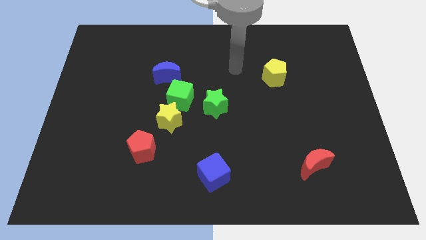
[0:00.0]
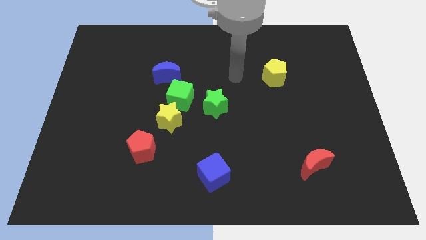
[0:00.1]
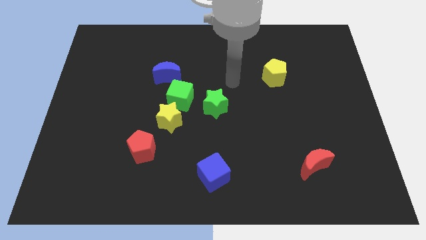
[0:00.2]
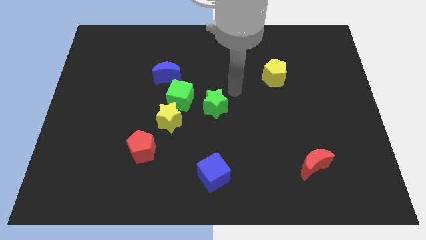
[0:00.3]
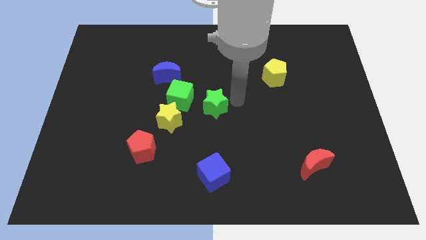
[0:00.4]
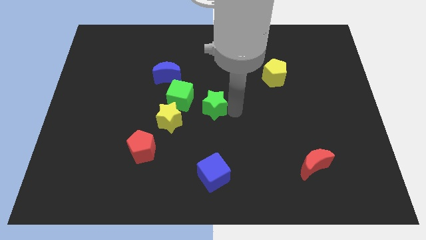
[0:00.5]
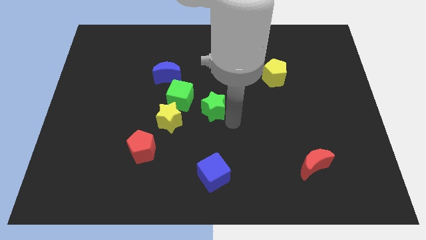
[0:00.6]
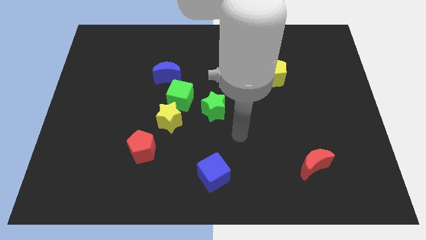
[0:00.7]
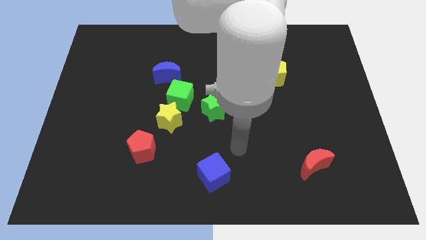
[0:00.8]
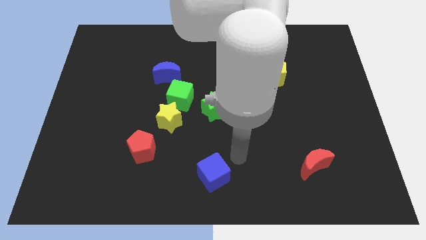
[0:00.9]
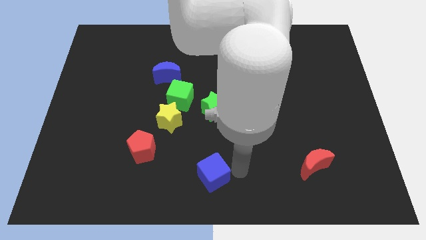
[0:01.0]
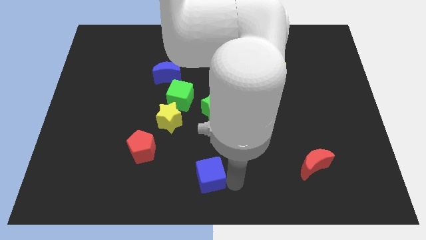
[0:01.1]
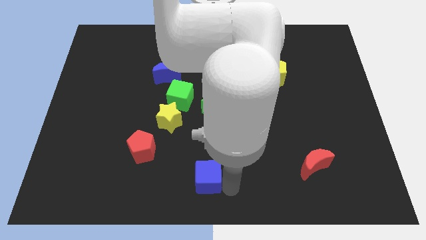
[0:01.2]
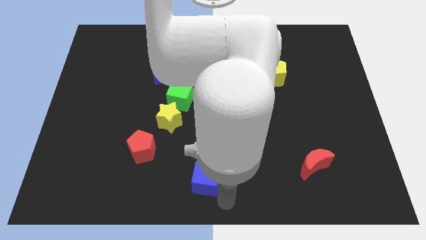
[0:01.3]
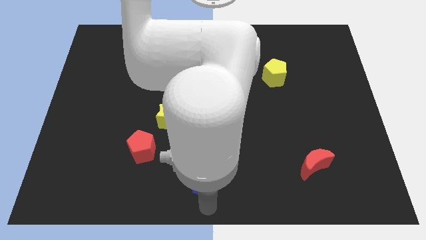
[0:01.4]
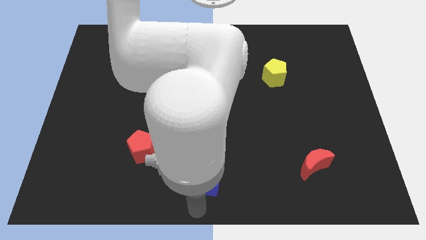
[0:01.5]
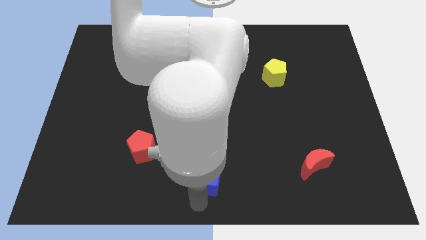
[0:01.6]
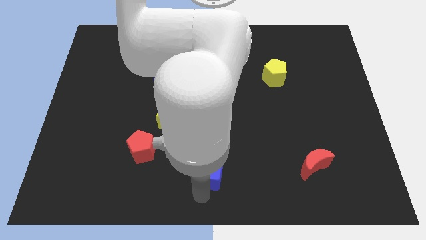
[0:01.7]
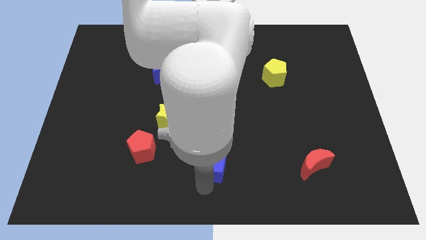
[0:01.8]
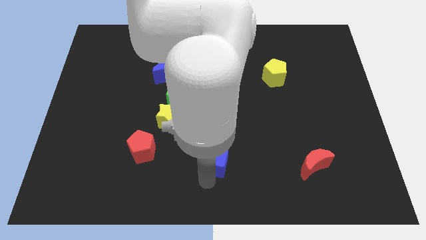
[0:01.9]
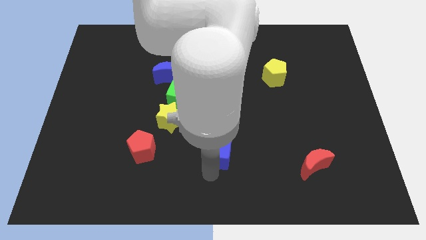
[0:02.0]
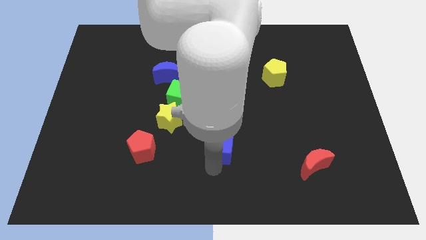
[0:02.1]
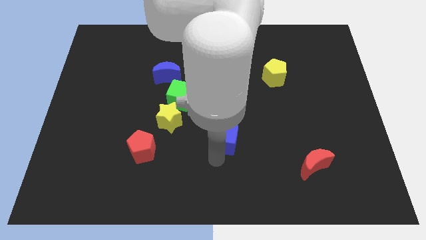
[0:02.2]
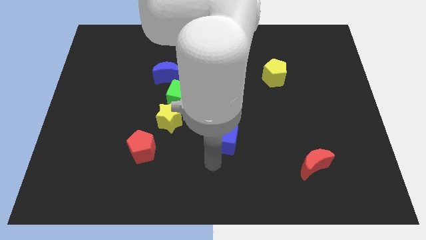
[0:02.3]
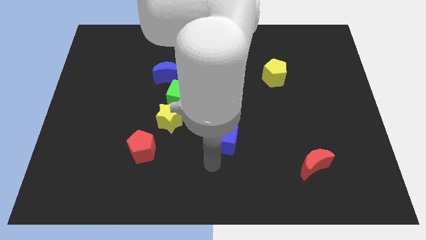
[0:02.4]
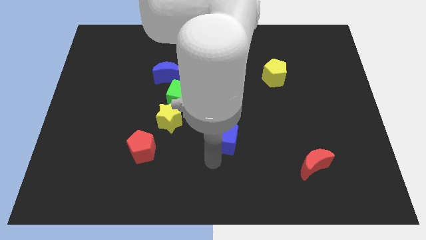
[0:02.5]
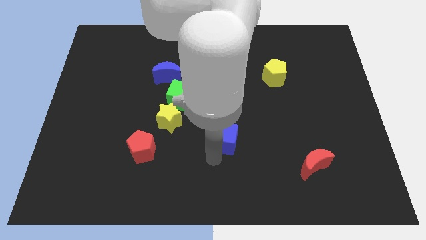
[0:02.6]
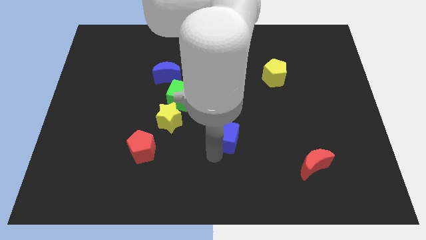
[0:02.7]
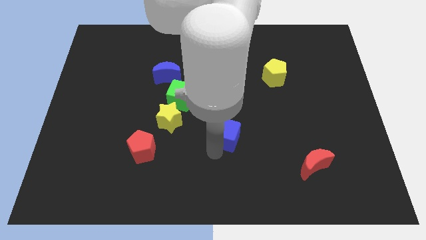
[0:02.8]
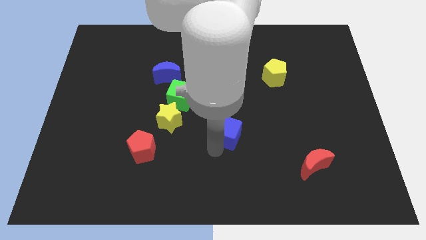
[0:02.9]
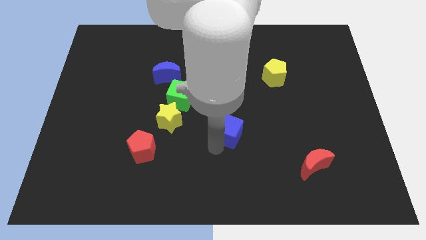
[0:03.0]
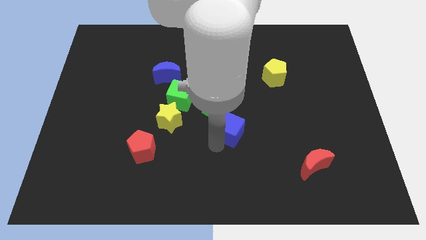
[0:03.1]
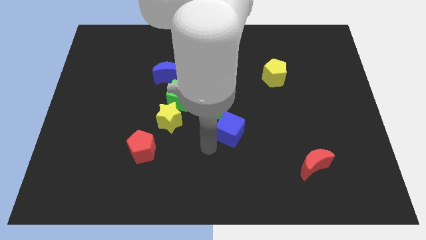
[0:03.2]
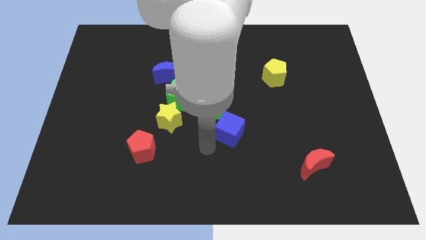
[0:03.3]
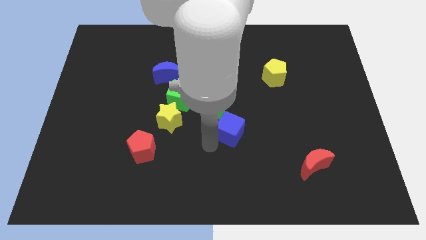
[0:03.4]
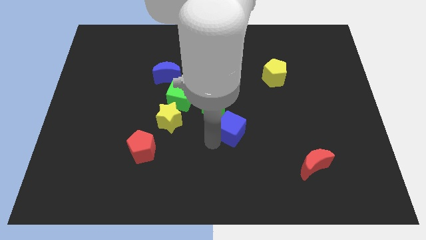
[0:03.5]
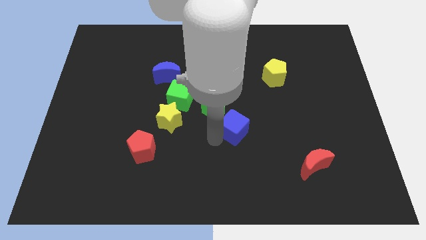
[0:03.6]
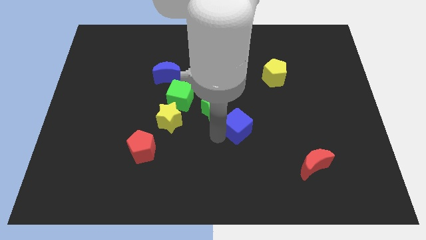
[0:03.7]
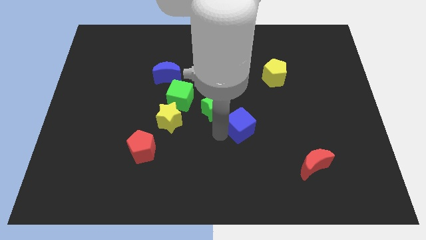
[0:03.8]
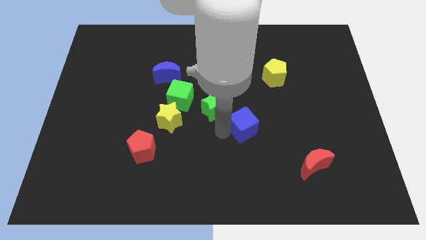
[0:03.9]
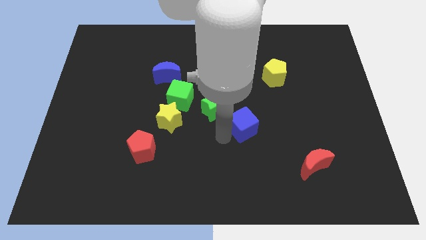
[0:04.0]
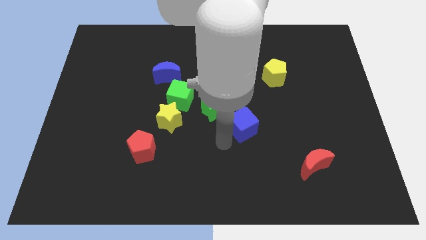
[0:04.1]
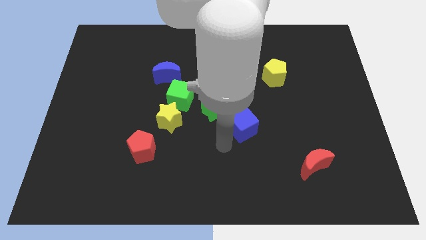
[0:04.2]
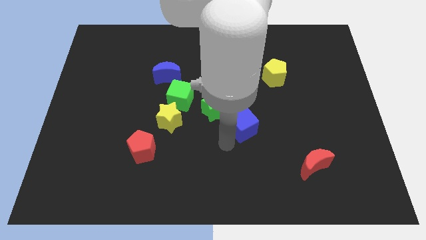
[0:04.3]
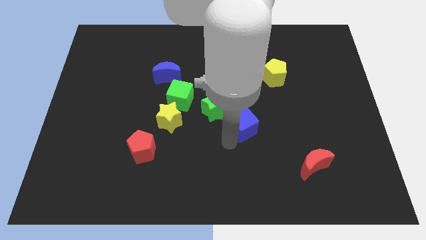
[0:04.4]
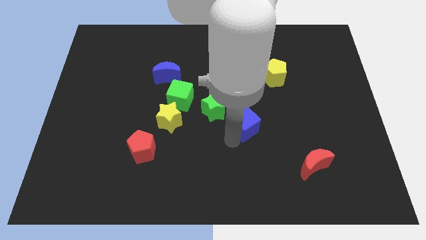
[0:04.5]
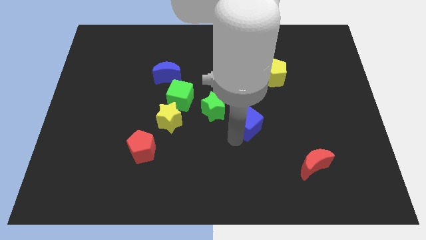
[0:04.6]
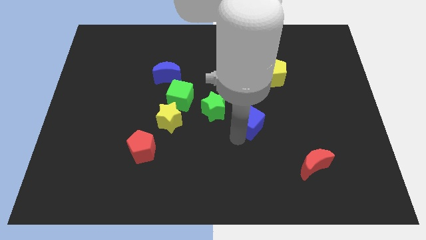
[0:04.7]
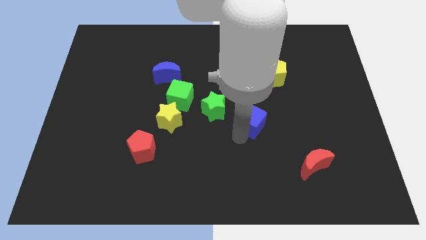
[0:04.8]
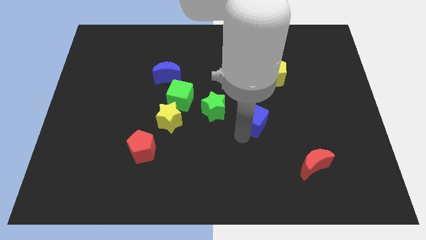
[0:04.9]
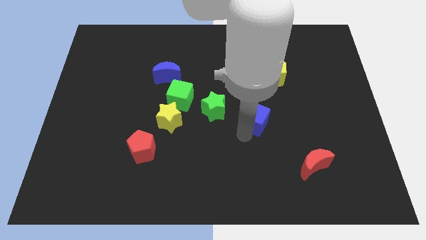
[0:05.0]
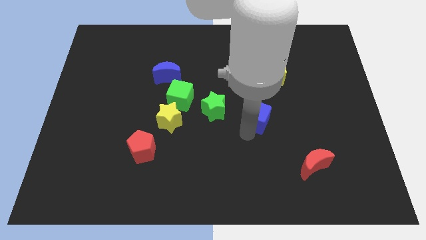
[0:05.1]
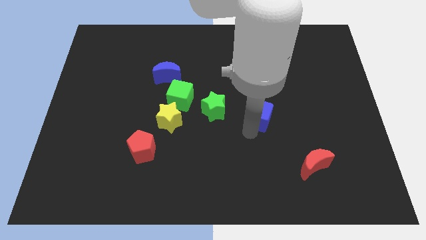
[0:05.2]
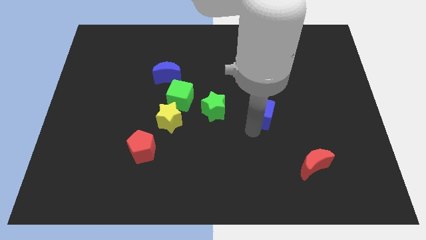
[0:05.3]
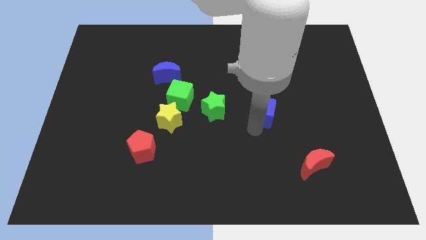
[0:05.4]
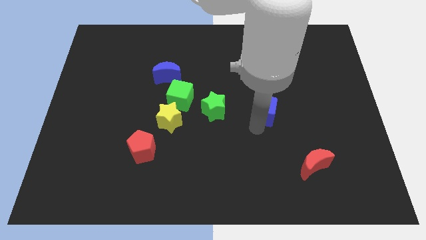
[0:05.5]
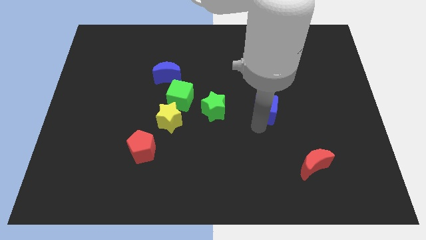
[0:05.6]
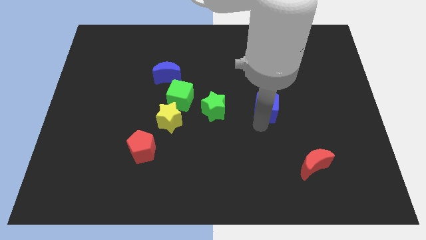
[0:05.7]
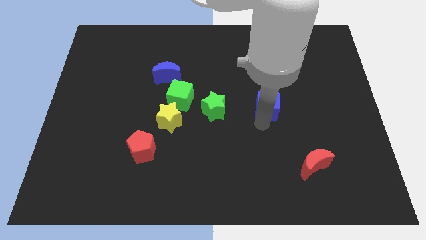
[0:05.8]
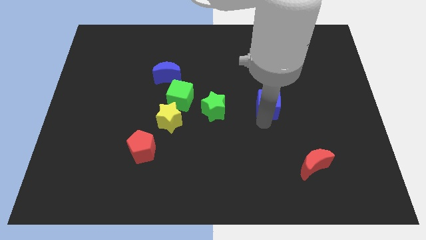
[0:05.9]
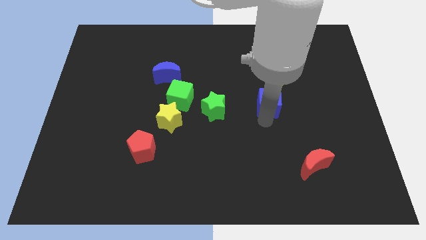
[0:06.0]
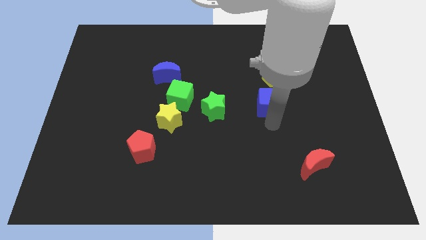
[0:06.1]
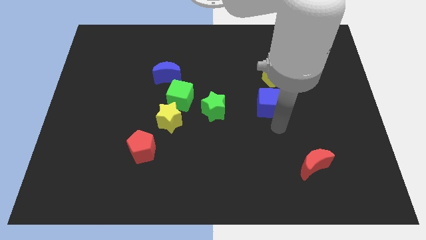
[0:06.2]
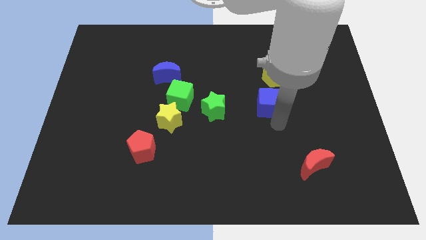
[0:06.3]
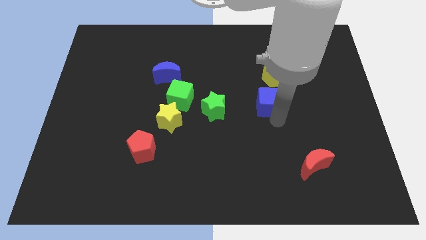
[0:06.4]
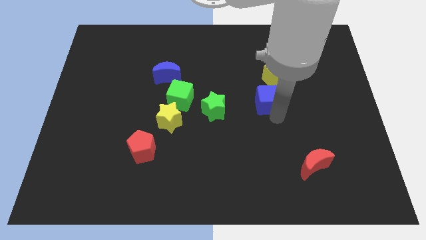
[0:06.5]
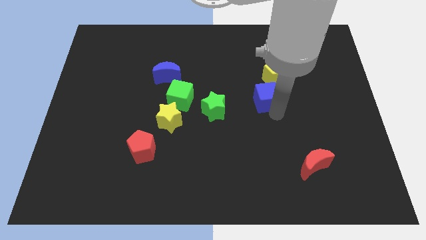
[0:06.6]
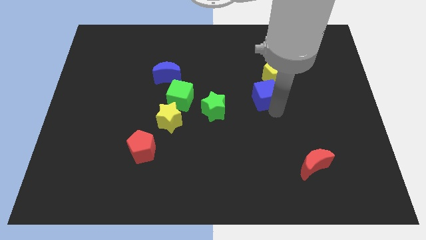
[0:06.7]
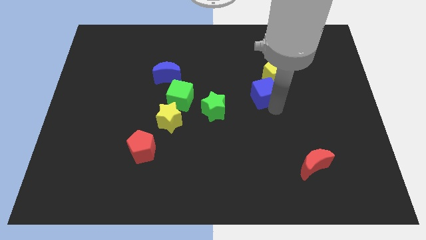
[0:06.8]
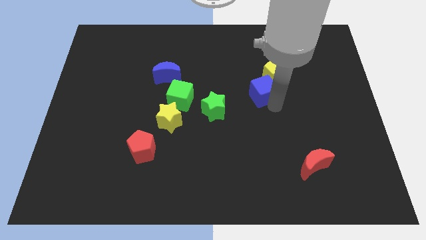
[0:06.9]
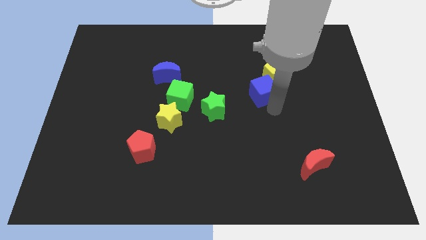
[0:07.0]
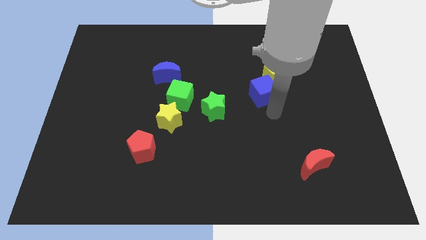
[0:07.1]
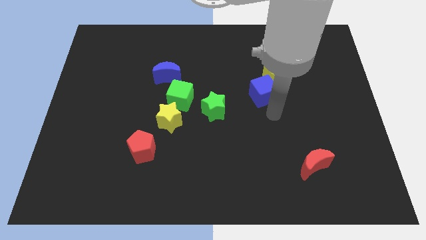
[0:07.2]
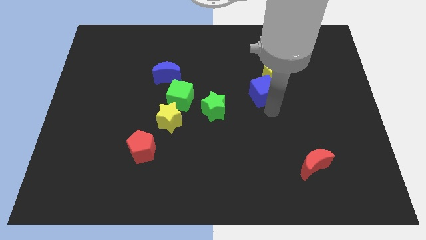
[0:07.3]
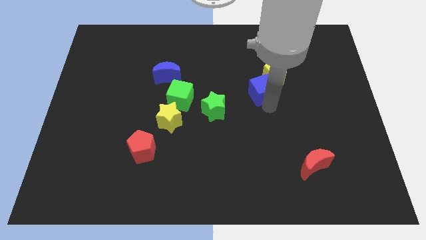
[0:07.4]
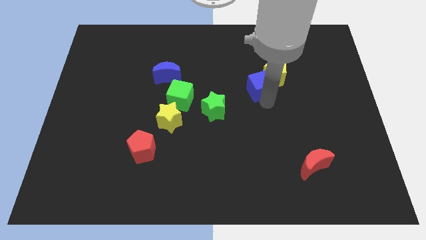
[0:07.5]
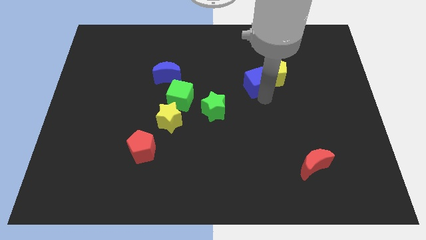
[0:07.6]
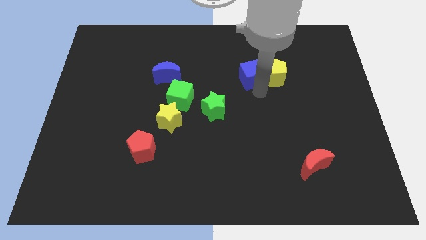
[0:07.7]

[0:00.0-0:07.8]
put the blue cube to the top left of the yellow pentagon

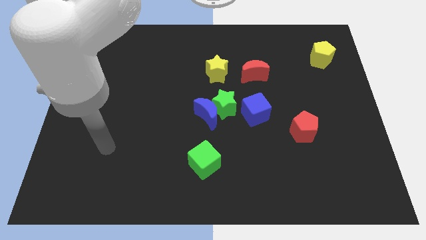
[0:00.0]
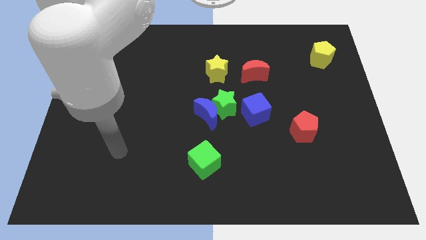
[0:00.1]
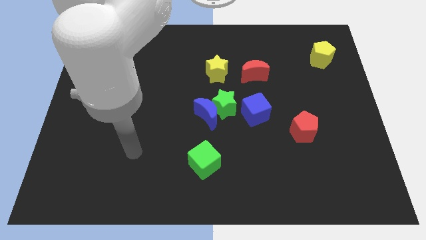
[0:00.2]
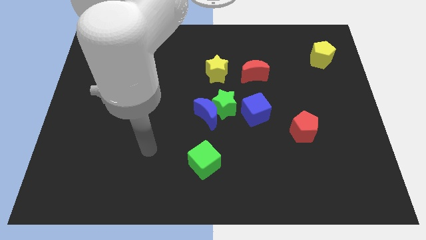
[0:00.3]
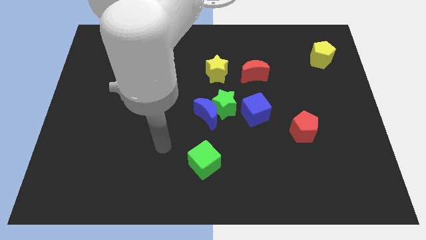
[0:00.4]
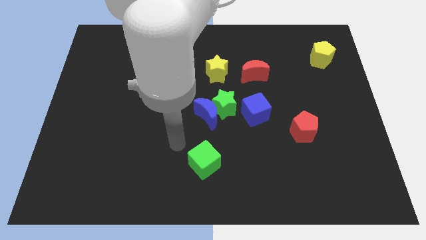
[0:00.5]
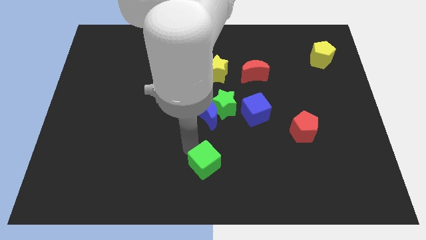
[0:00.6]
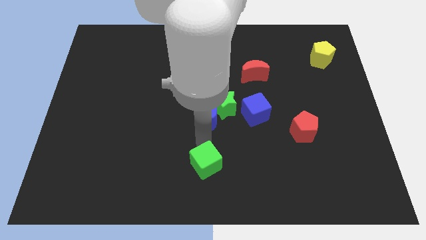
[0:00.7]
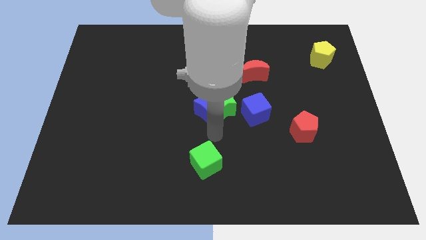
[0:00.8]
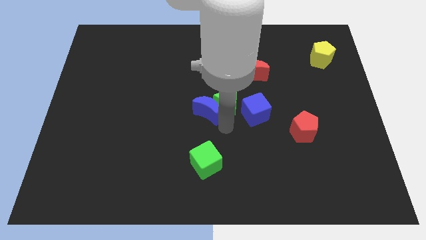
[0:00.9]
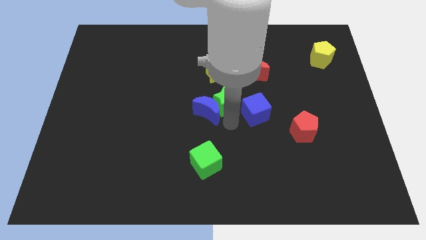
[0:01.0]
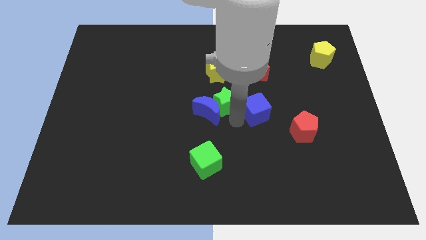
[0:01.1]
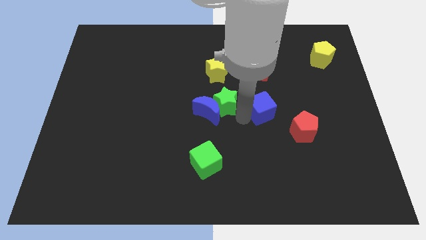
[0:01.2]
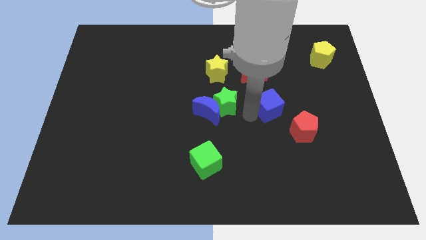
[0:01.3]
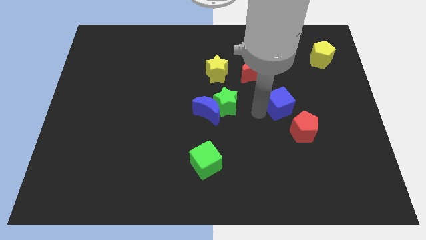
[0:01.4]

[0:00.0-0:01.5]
slide the blue cube to the top of the red pentagon
